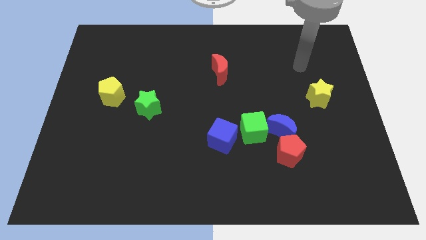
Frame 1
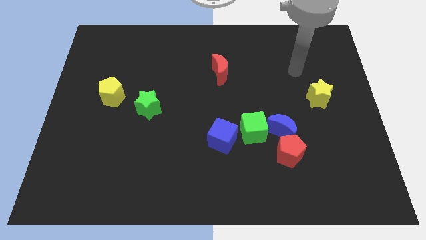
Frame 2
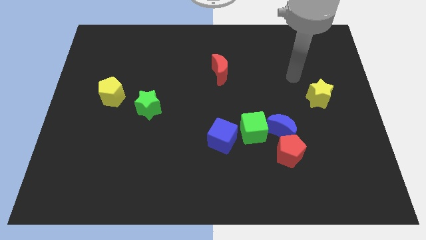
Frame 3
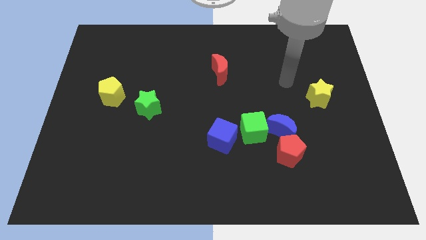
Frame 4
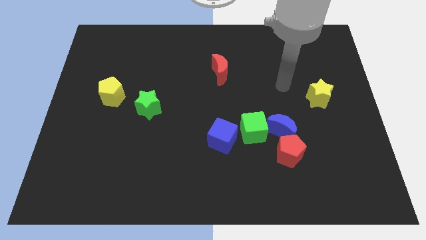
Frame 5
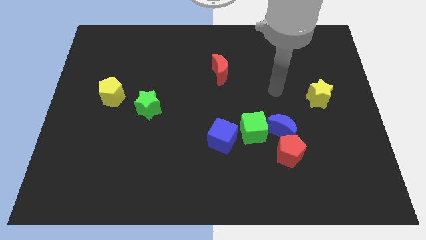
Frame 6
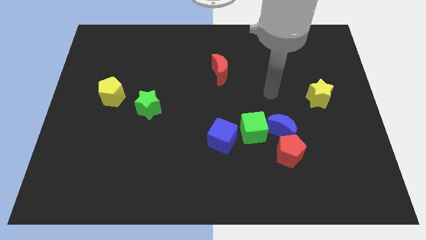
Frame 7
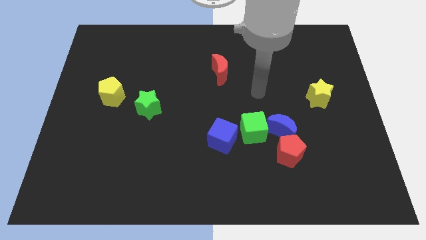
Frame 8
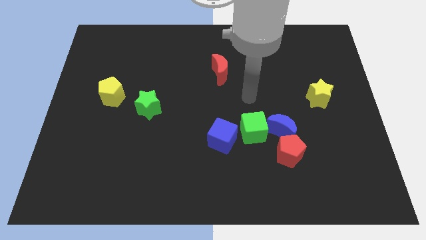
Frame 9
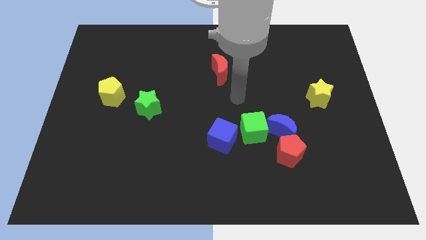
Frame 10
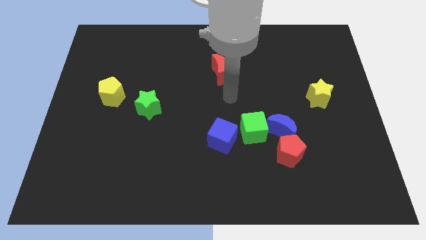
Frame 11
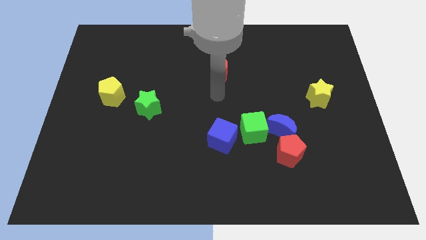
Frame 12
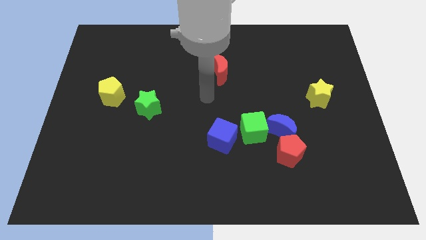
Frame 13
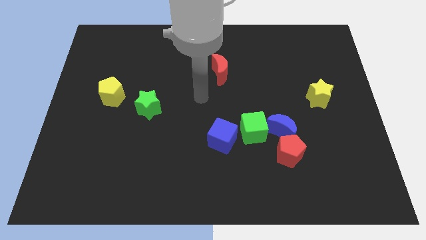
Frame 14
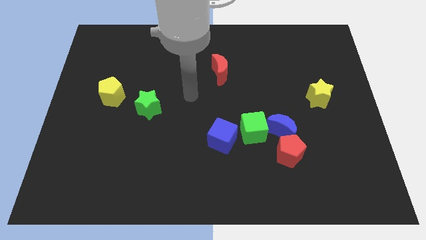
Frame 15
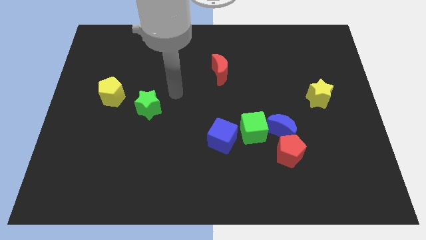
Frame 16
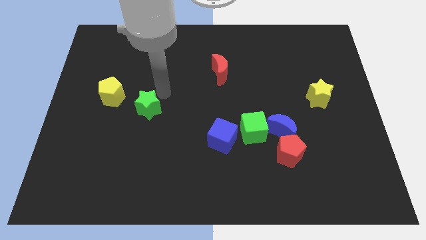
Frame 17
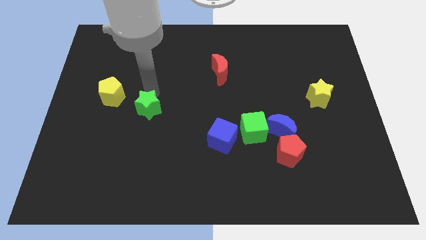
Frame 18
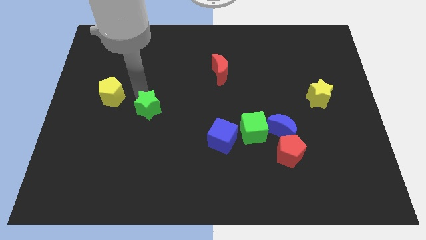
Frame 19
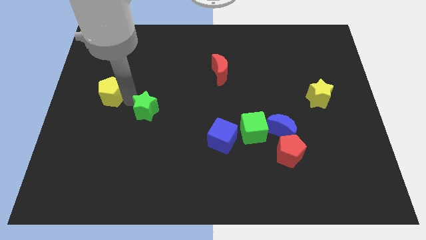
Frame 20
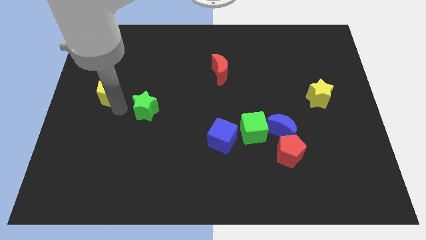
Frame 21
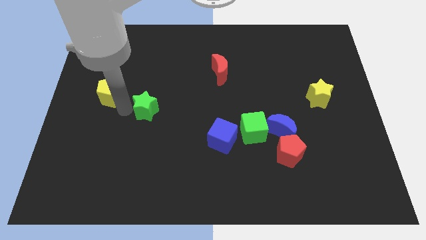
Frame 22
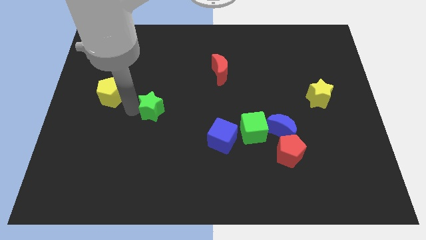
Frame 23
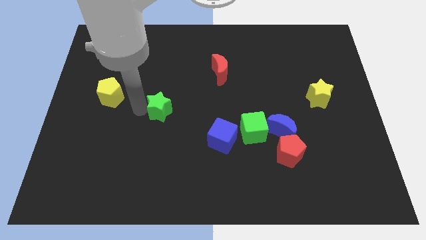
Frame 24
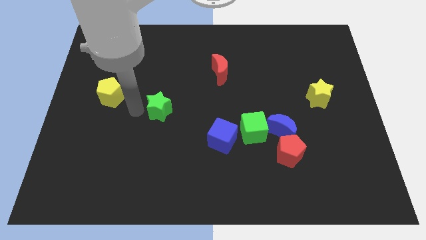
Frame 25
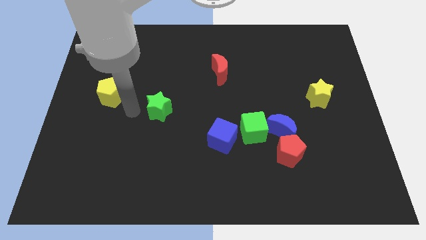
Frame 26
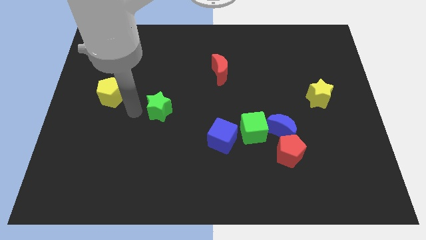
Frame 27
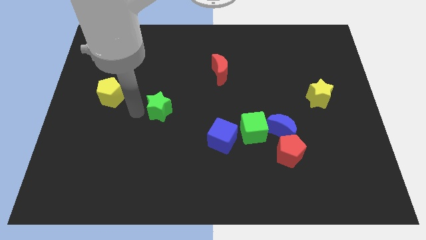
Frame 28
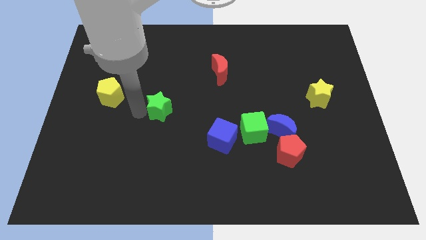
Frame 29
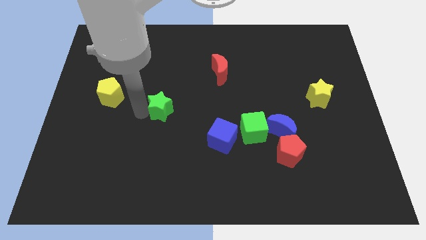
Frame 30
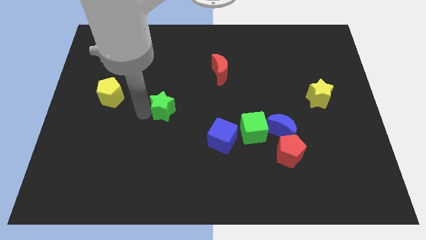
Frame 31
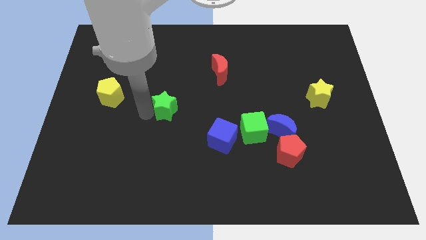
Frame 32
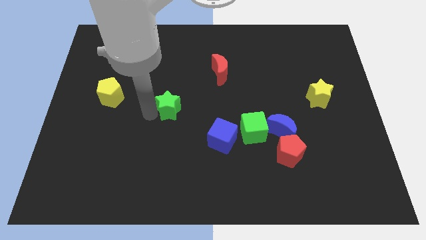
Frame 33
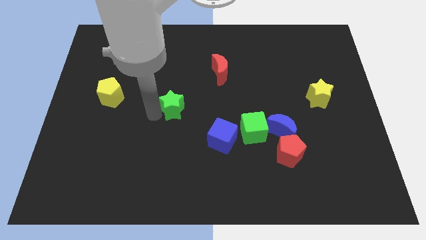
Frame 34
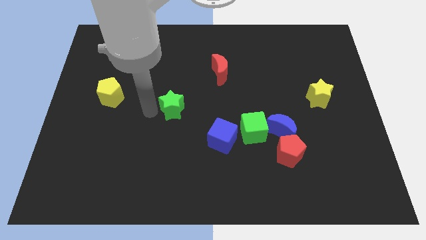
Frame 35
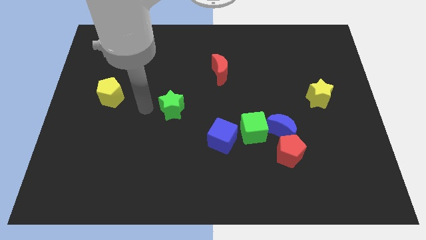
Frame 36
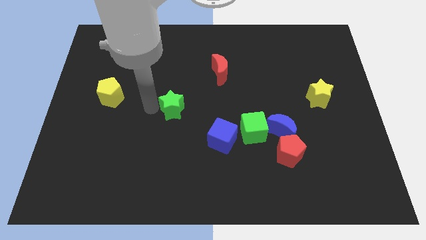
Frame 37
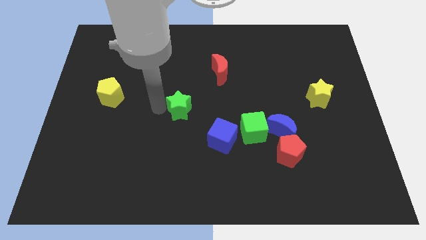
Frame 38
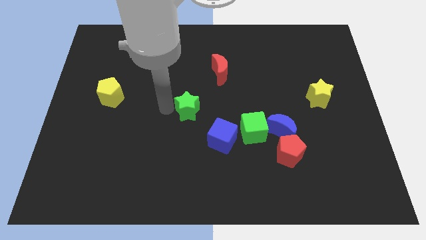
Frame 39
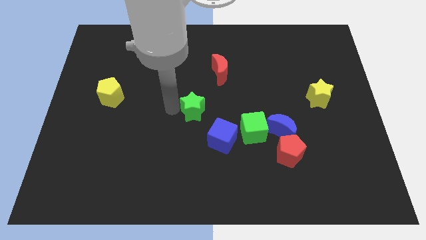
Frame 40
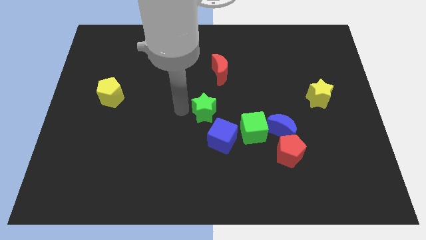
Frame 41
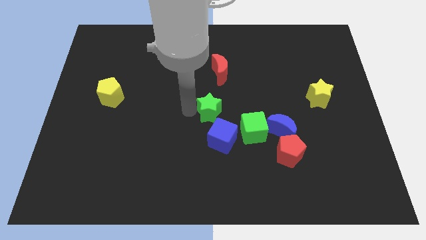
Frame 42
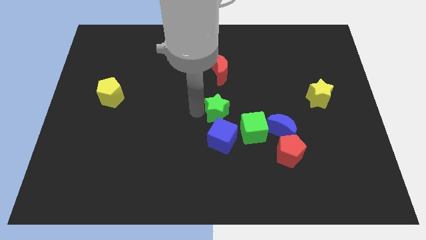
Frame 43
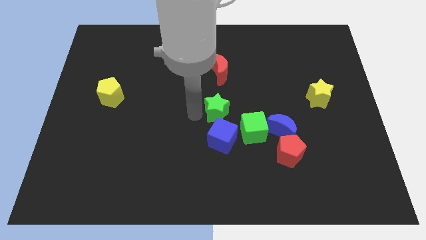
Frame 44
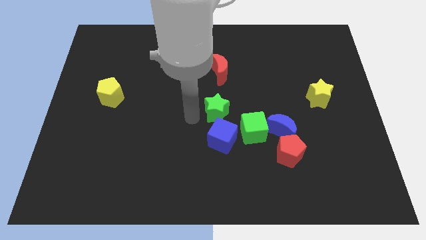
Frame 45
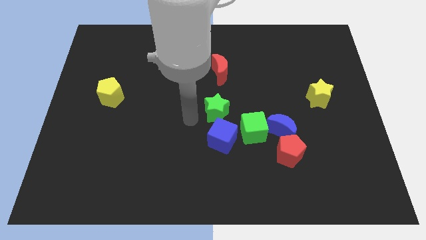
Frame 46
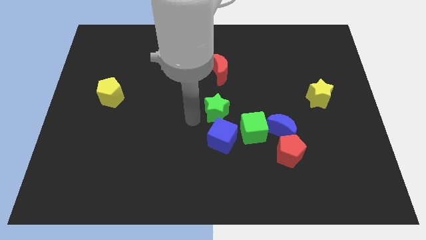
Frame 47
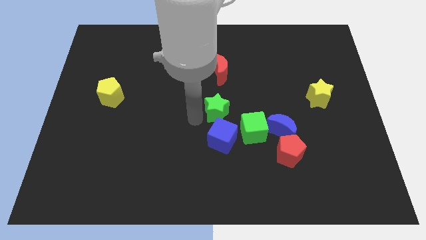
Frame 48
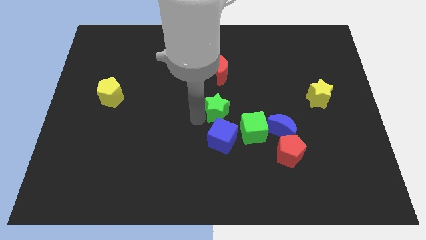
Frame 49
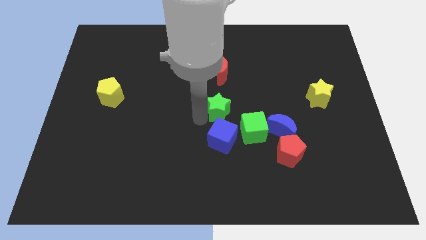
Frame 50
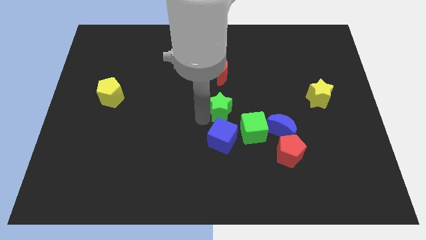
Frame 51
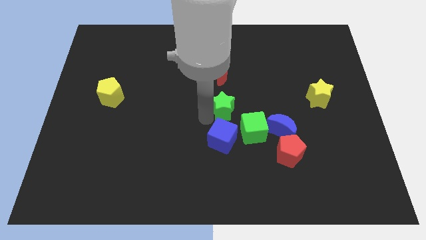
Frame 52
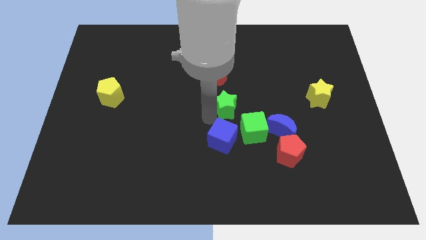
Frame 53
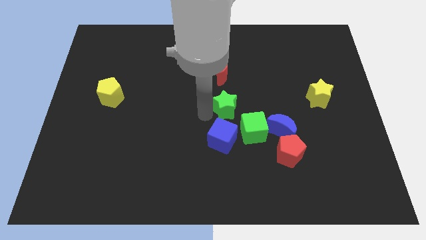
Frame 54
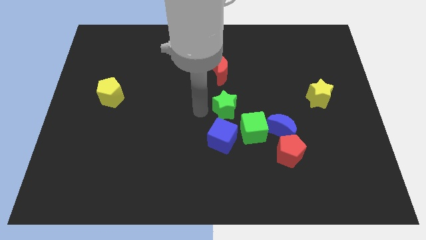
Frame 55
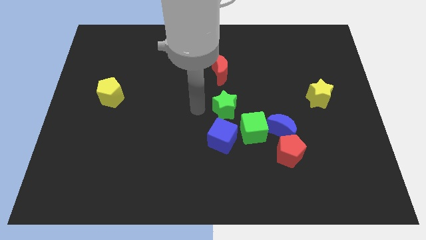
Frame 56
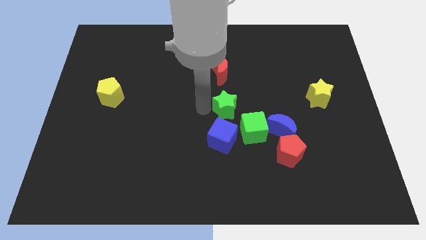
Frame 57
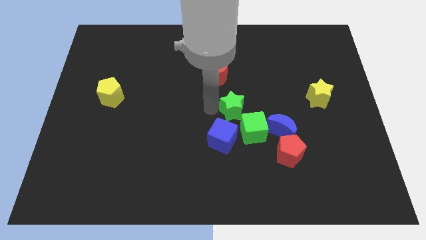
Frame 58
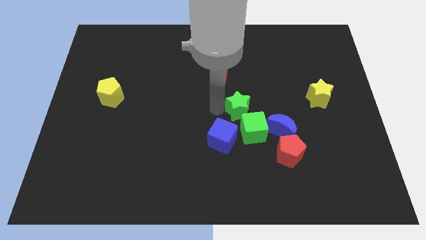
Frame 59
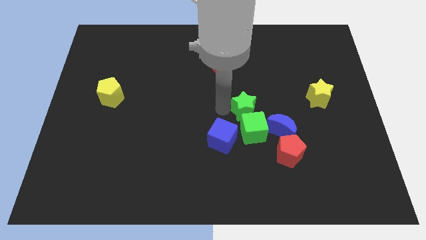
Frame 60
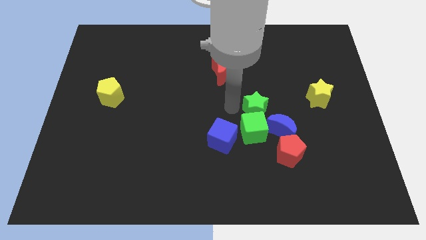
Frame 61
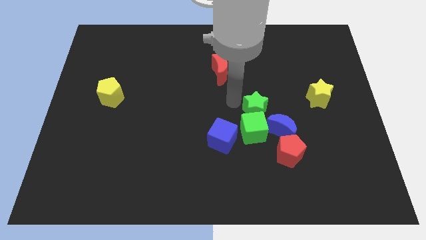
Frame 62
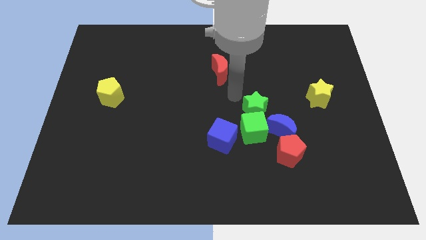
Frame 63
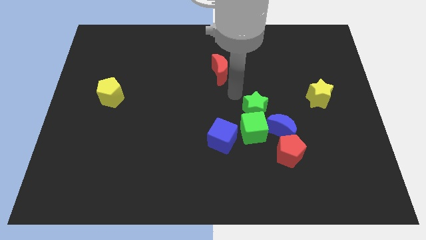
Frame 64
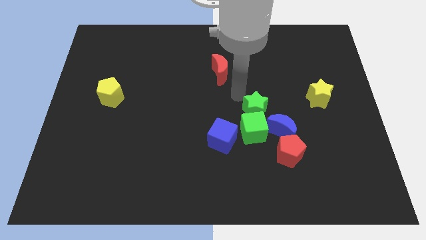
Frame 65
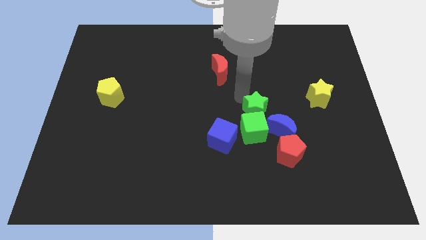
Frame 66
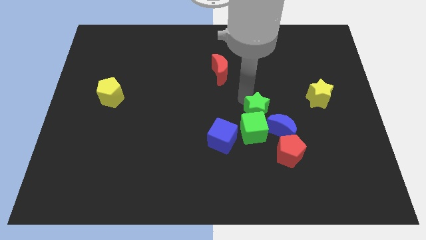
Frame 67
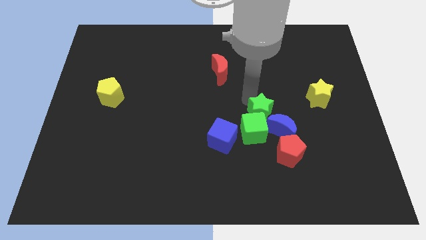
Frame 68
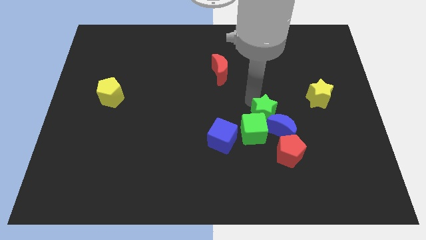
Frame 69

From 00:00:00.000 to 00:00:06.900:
slide the green star next to the blue moon

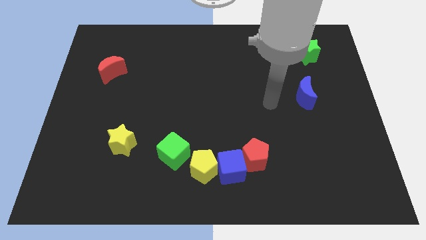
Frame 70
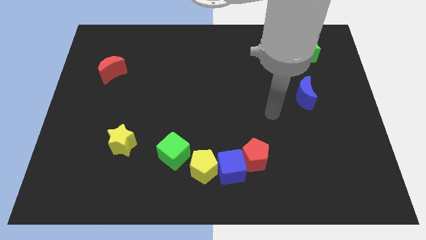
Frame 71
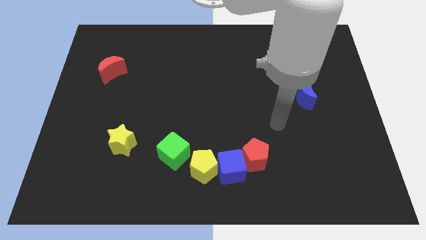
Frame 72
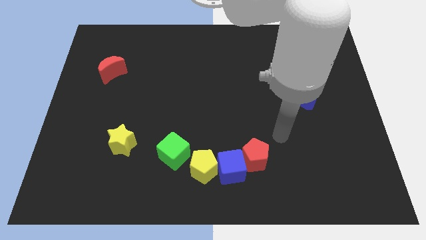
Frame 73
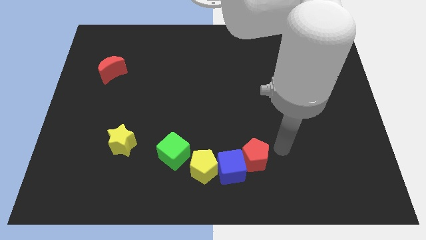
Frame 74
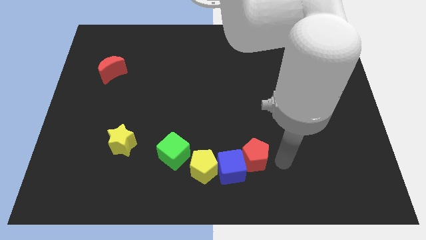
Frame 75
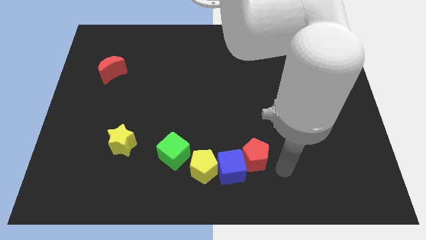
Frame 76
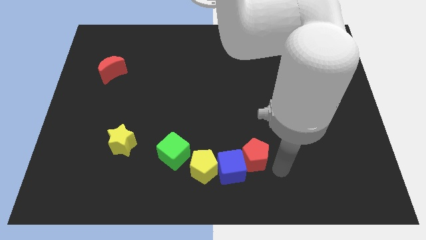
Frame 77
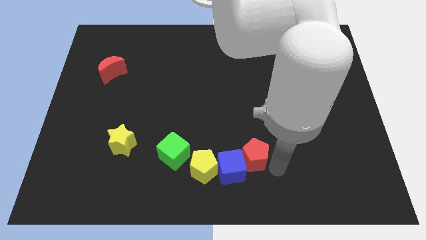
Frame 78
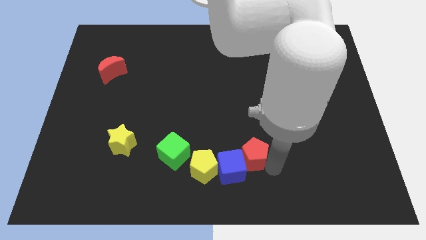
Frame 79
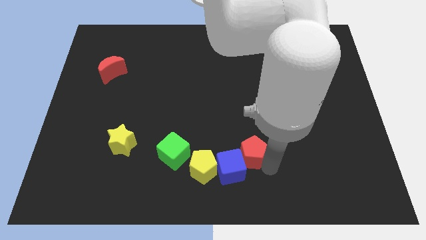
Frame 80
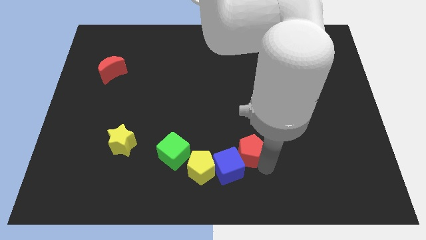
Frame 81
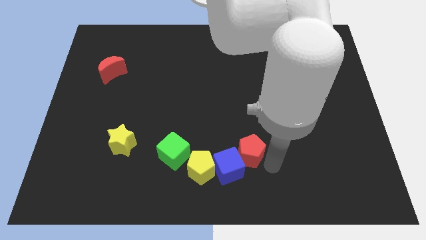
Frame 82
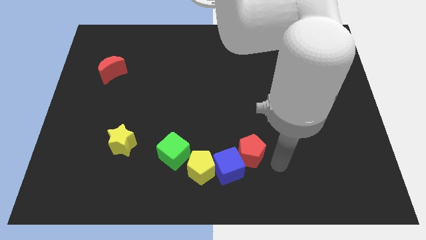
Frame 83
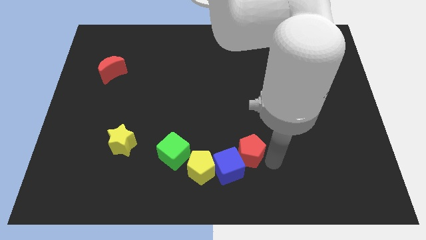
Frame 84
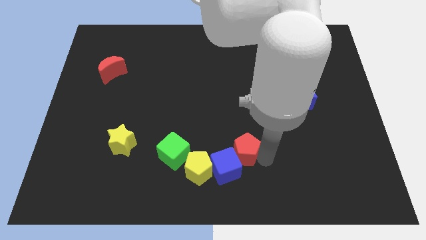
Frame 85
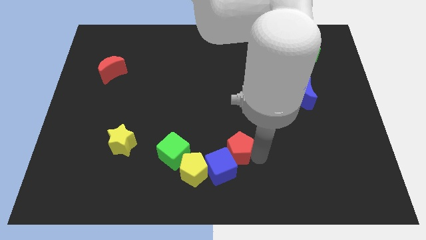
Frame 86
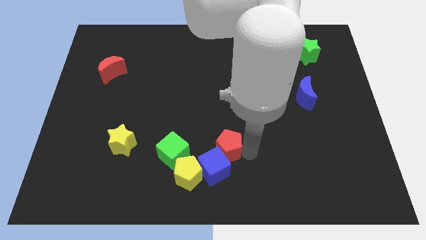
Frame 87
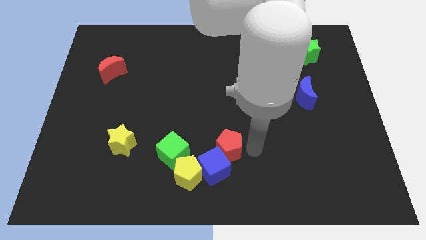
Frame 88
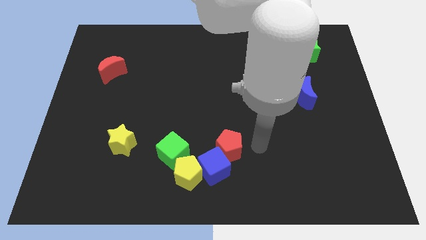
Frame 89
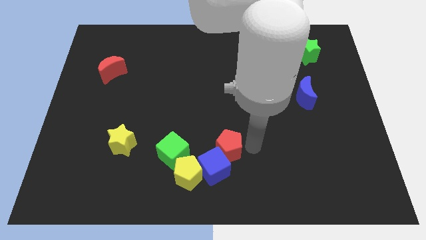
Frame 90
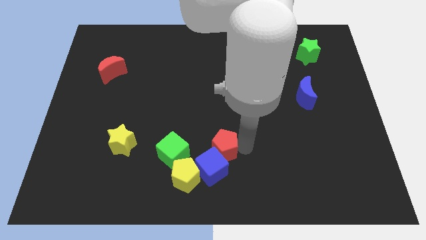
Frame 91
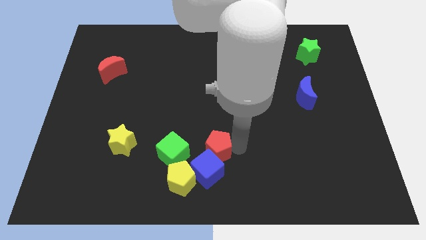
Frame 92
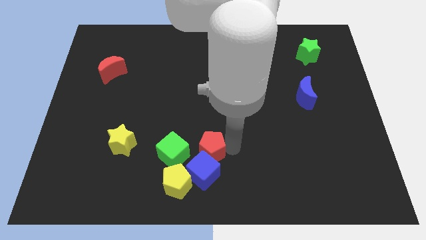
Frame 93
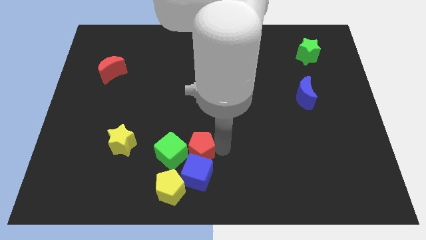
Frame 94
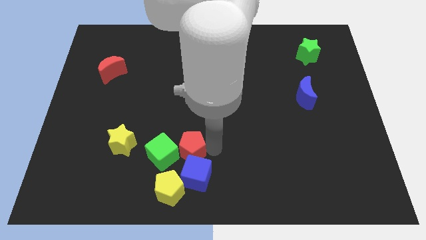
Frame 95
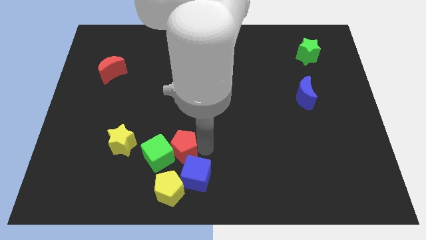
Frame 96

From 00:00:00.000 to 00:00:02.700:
move the red pentagon close to the green cube
